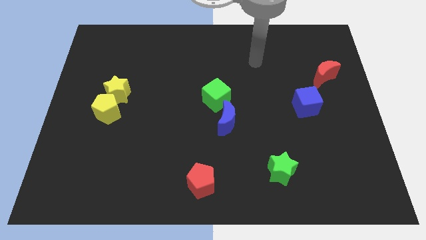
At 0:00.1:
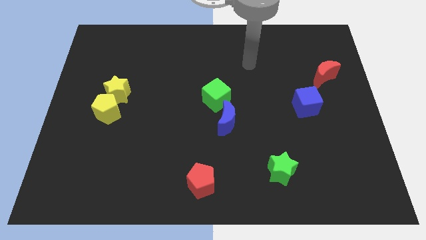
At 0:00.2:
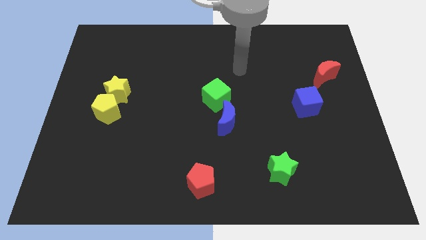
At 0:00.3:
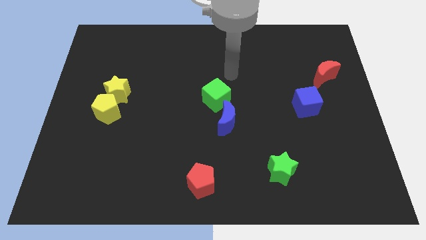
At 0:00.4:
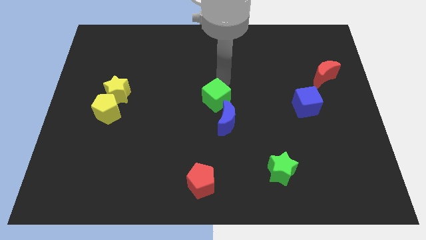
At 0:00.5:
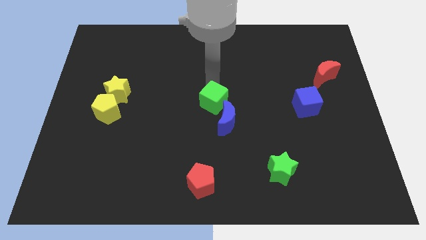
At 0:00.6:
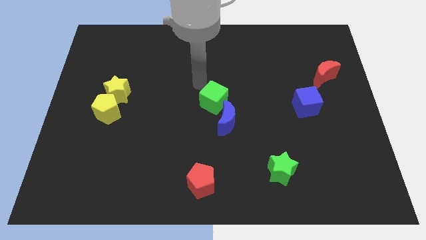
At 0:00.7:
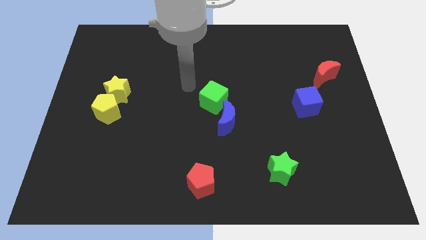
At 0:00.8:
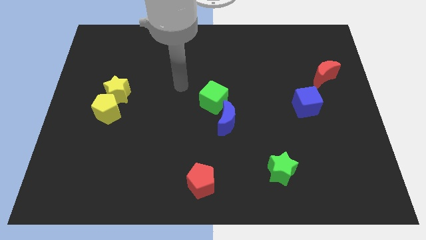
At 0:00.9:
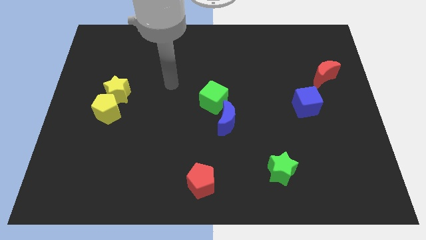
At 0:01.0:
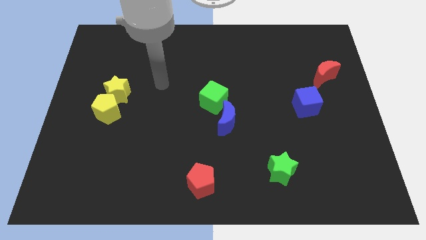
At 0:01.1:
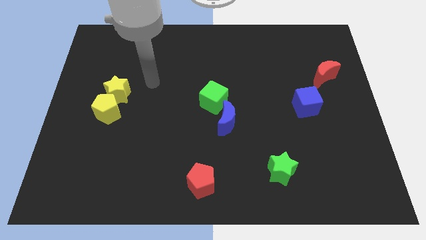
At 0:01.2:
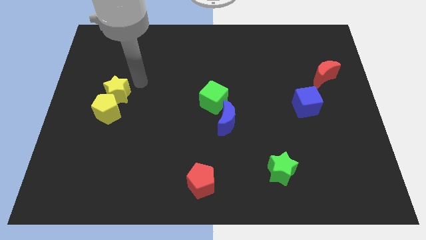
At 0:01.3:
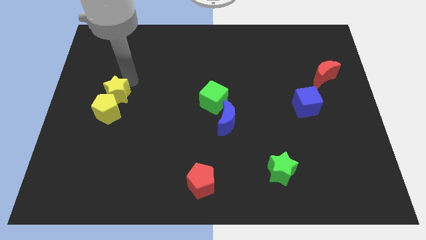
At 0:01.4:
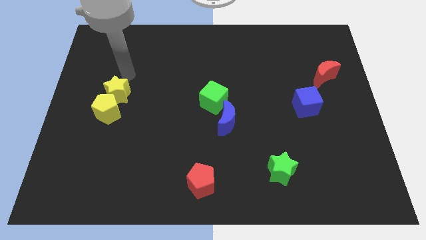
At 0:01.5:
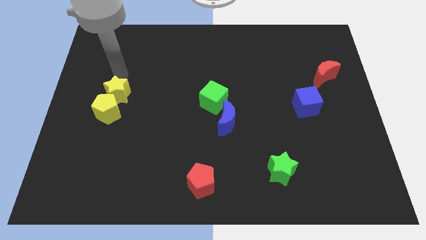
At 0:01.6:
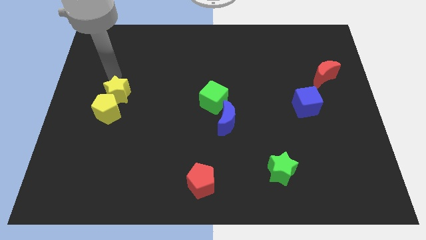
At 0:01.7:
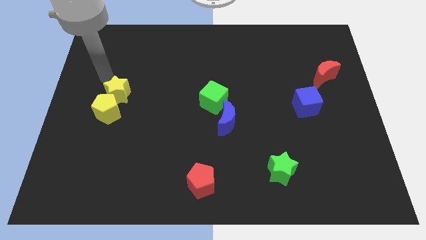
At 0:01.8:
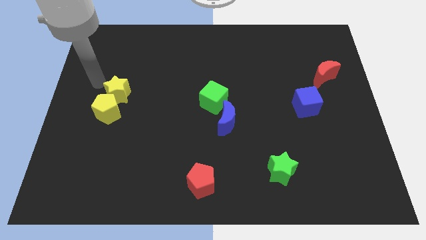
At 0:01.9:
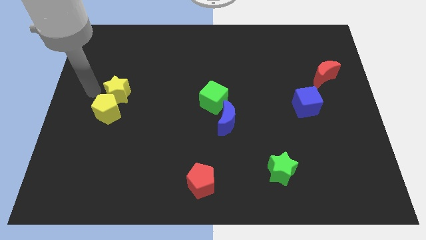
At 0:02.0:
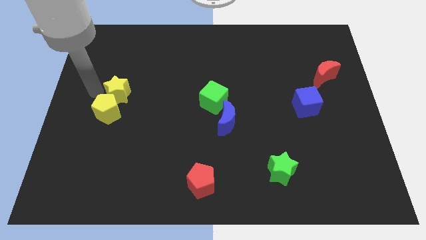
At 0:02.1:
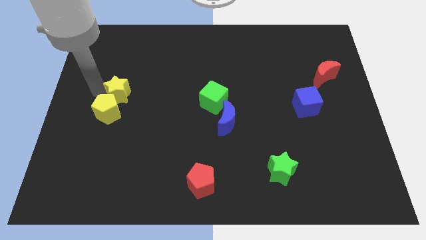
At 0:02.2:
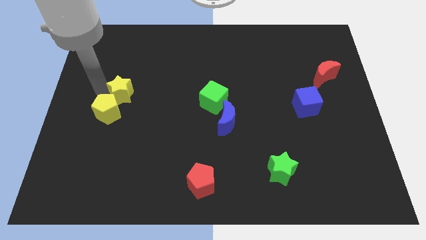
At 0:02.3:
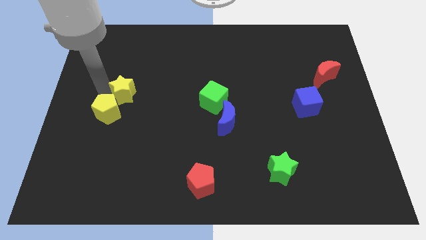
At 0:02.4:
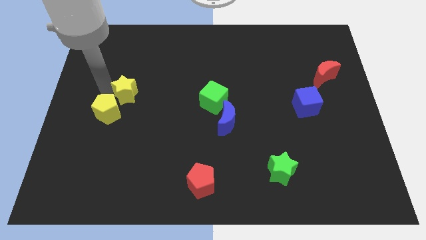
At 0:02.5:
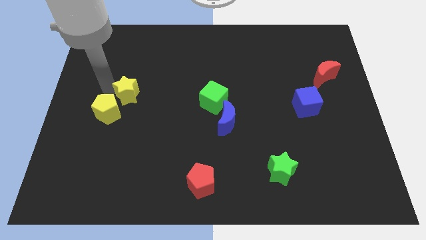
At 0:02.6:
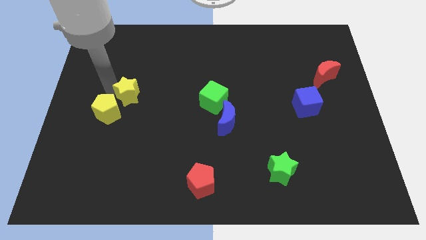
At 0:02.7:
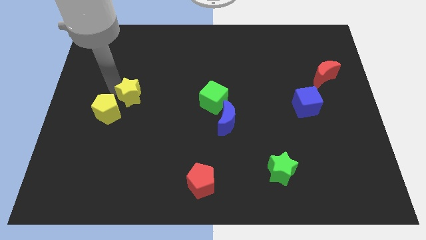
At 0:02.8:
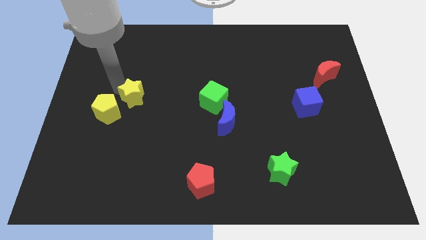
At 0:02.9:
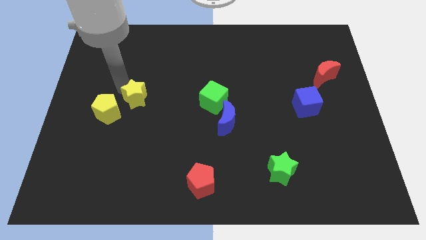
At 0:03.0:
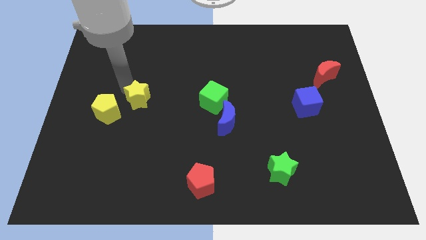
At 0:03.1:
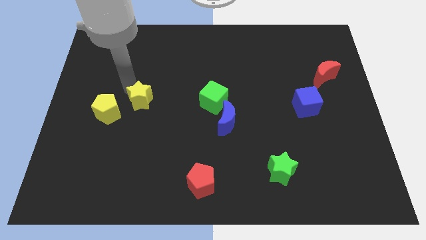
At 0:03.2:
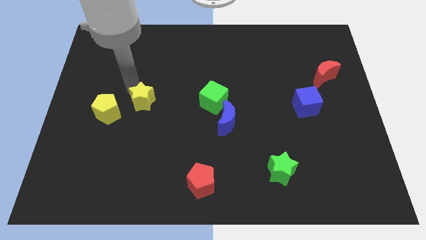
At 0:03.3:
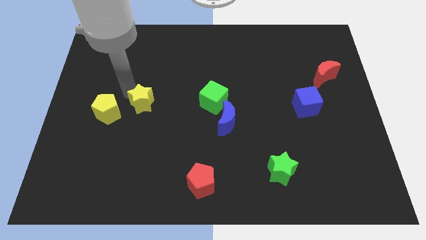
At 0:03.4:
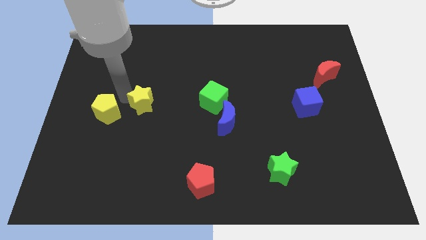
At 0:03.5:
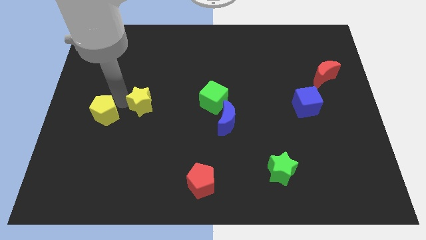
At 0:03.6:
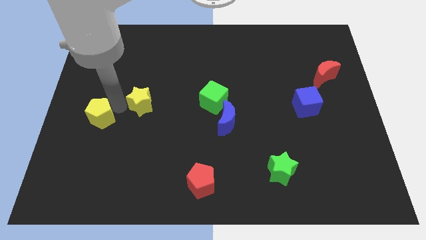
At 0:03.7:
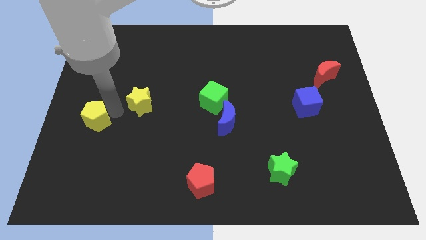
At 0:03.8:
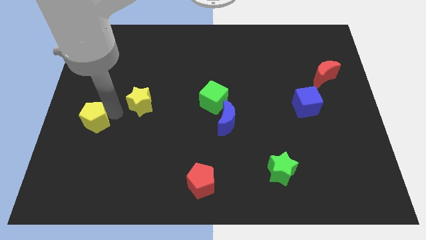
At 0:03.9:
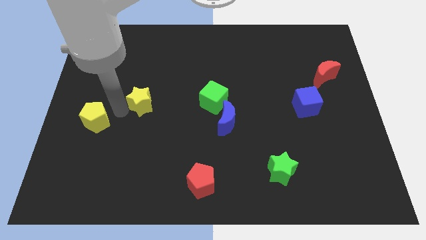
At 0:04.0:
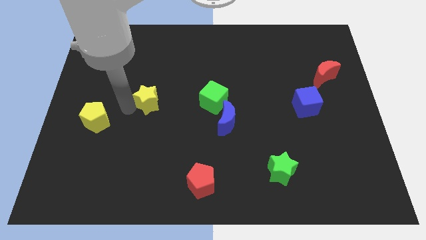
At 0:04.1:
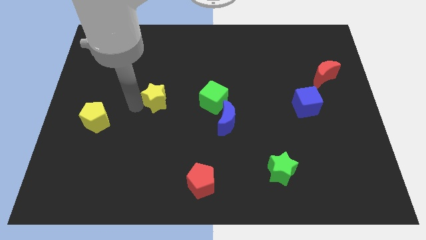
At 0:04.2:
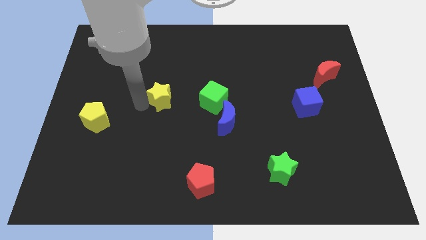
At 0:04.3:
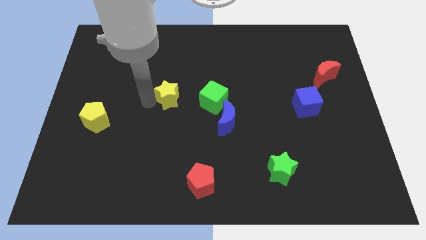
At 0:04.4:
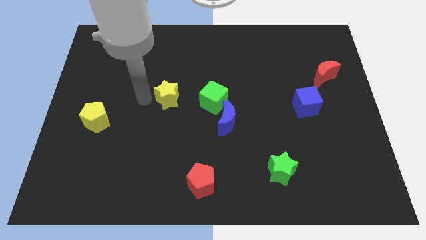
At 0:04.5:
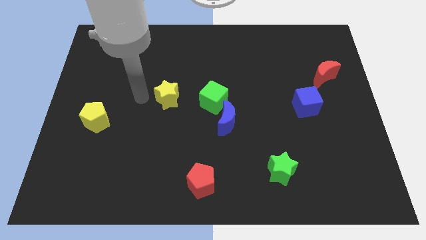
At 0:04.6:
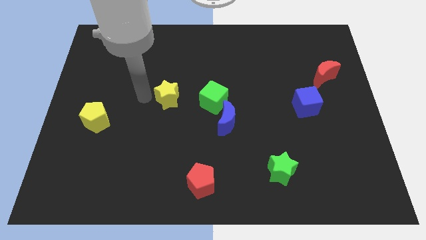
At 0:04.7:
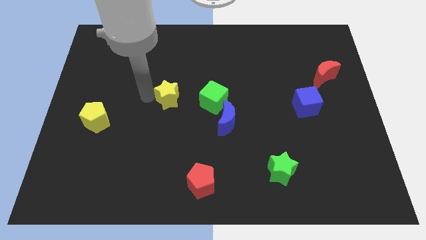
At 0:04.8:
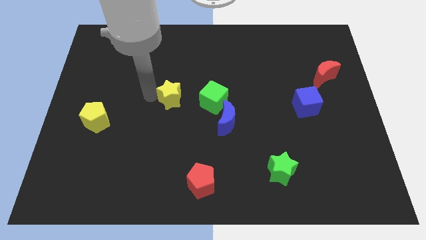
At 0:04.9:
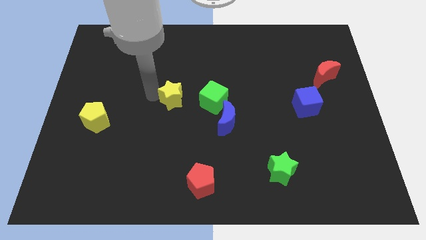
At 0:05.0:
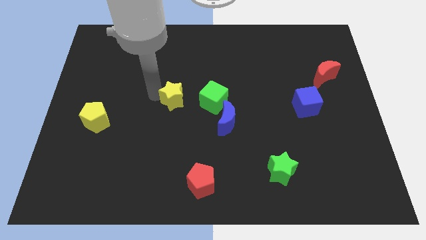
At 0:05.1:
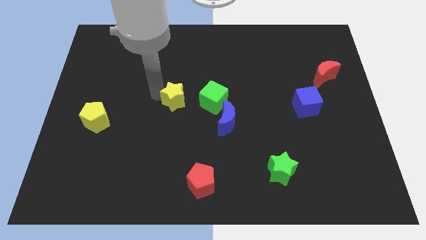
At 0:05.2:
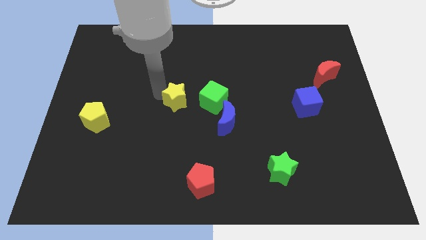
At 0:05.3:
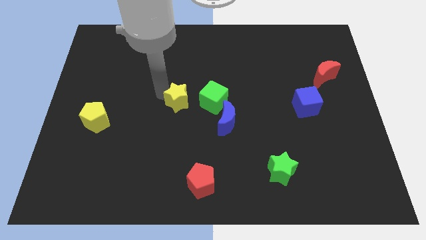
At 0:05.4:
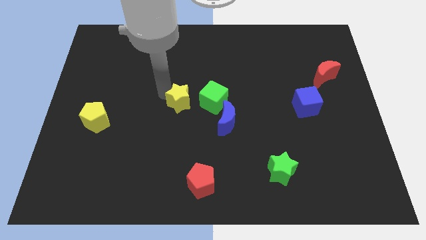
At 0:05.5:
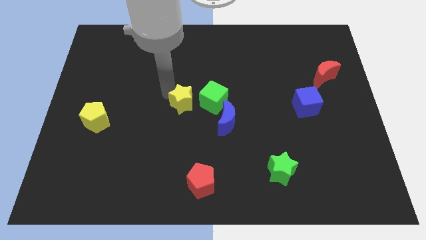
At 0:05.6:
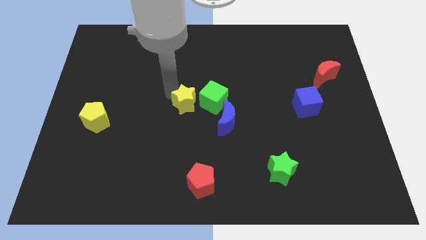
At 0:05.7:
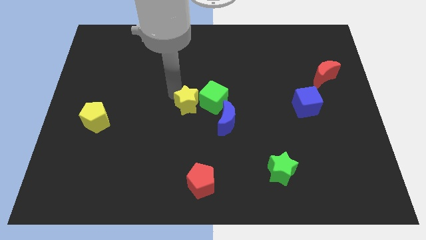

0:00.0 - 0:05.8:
push the yellow star to the green cube

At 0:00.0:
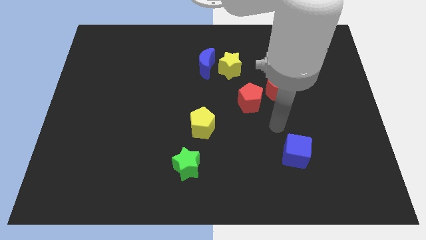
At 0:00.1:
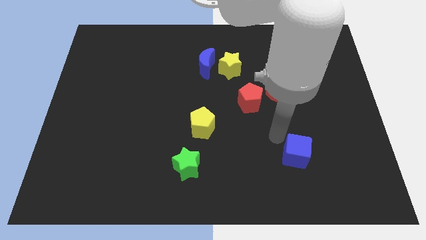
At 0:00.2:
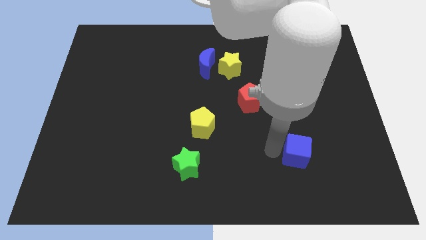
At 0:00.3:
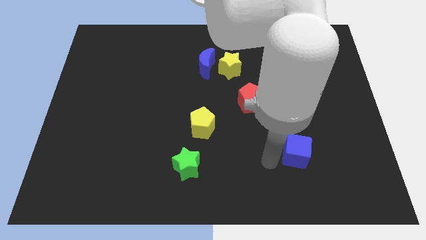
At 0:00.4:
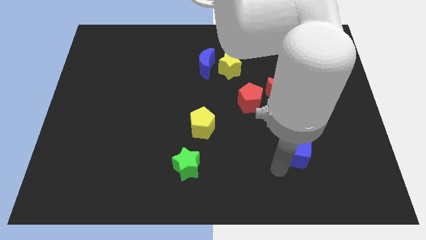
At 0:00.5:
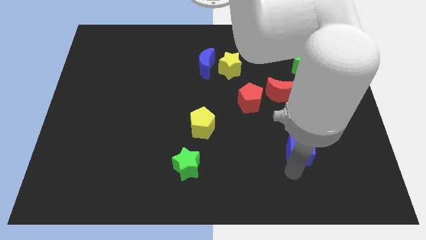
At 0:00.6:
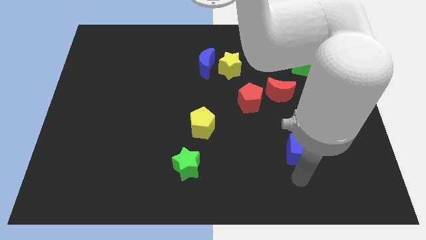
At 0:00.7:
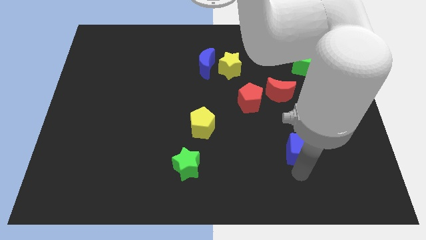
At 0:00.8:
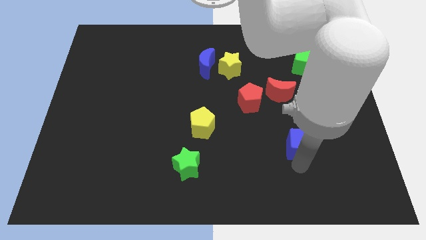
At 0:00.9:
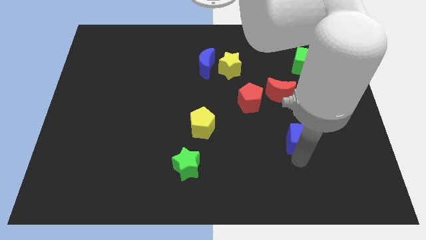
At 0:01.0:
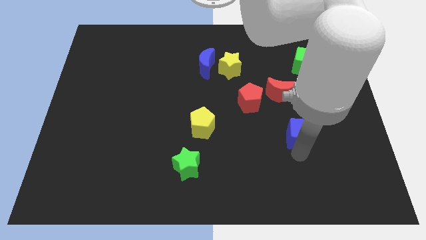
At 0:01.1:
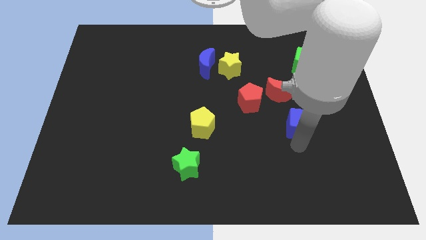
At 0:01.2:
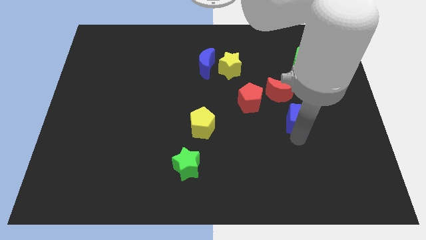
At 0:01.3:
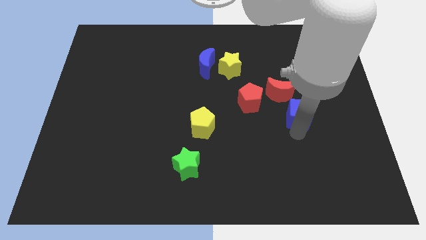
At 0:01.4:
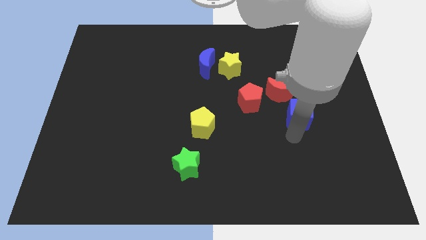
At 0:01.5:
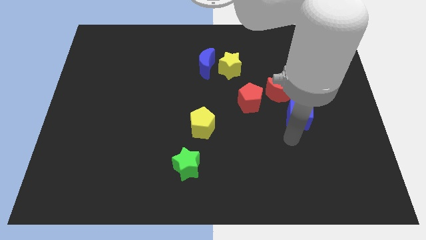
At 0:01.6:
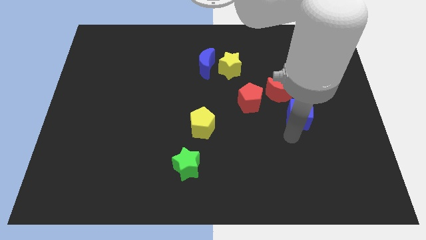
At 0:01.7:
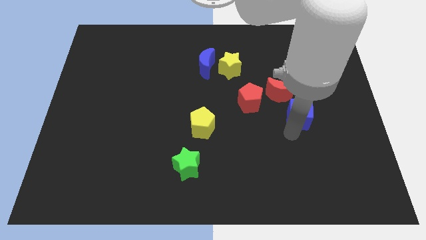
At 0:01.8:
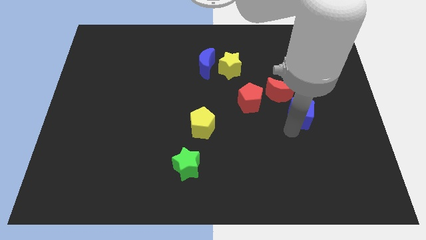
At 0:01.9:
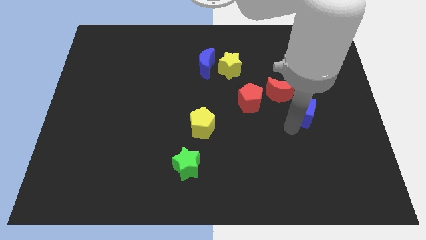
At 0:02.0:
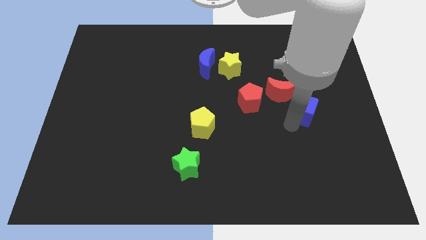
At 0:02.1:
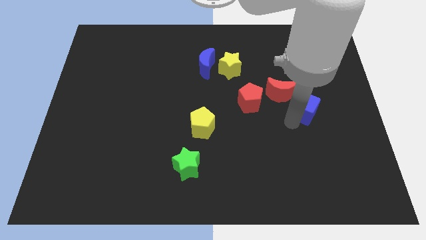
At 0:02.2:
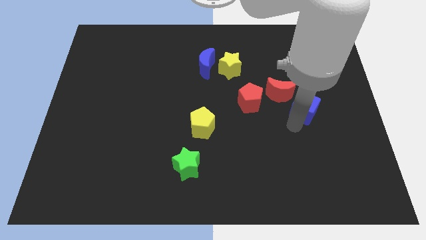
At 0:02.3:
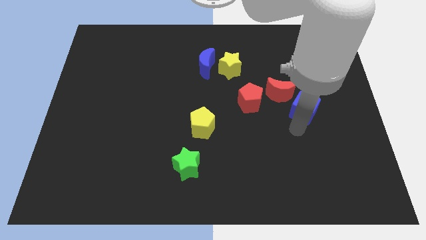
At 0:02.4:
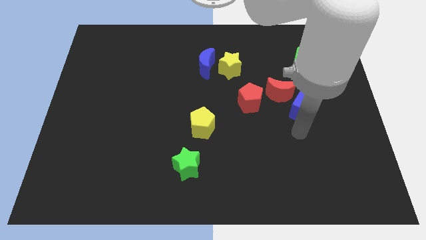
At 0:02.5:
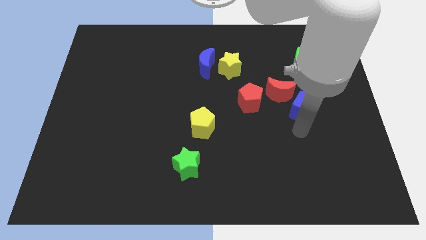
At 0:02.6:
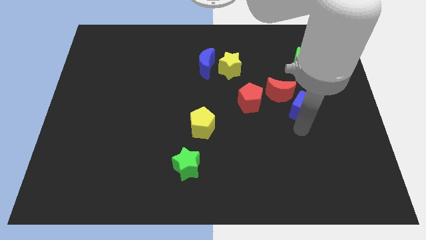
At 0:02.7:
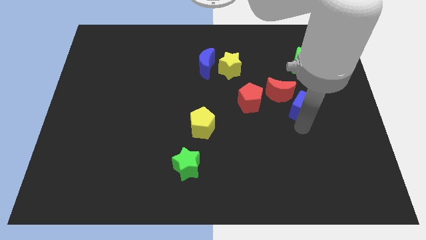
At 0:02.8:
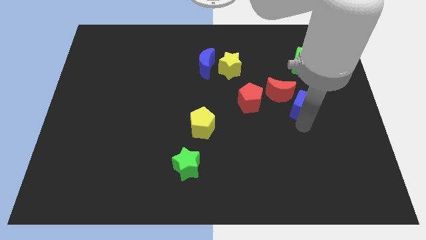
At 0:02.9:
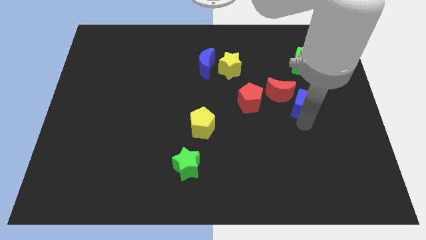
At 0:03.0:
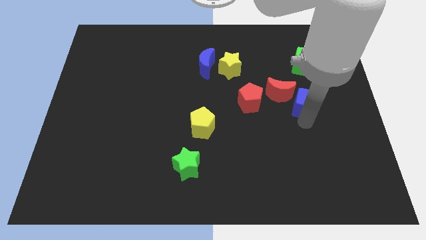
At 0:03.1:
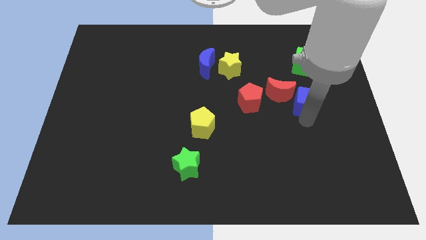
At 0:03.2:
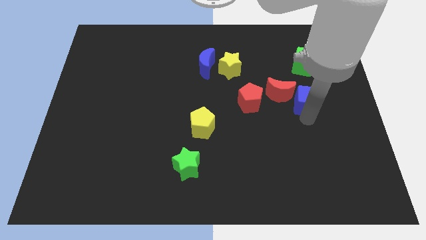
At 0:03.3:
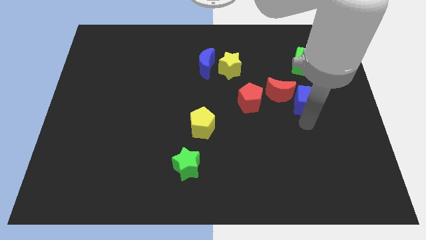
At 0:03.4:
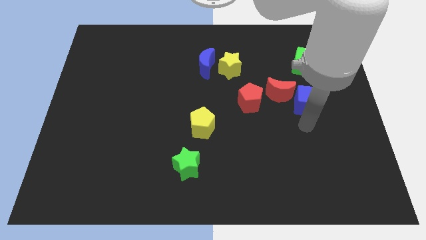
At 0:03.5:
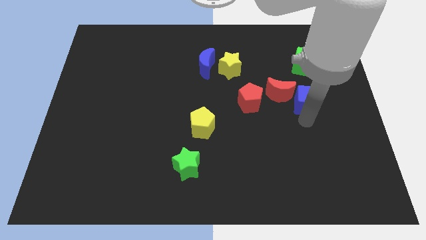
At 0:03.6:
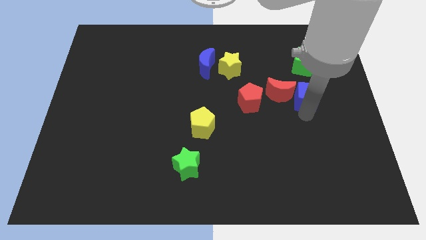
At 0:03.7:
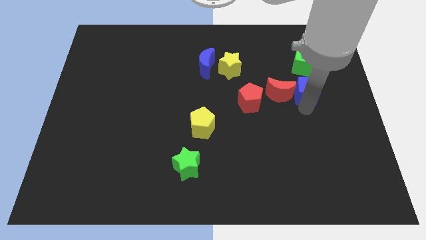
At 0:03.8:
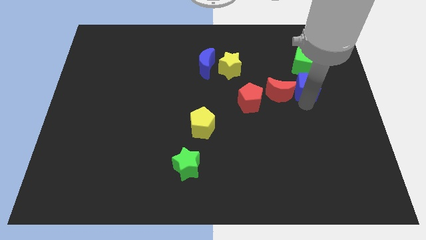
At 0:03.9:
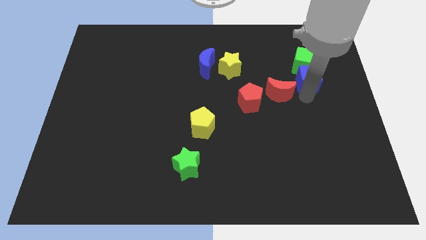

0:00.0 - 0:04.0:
slide the blue cube next to the green cube
